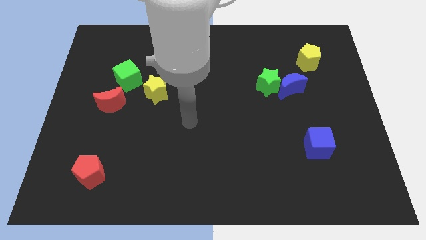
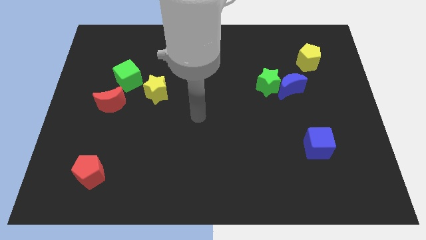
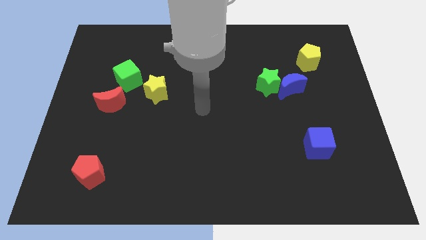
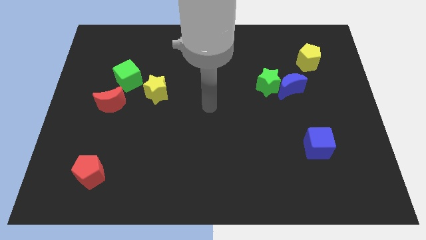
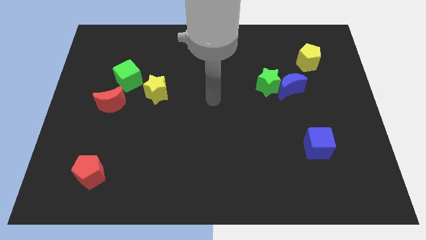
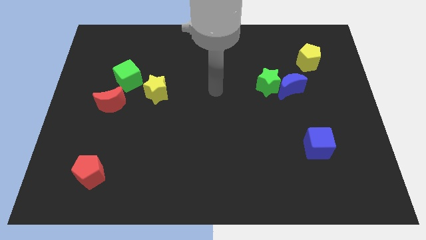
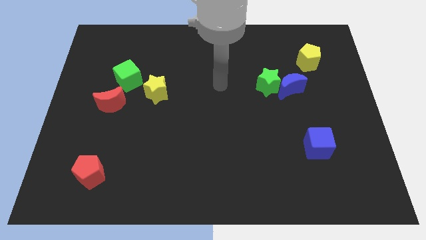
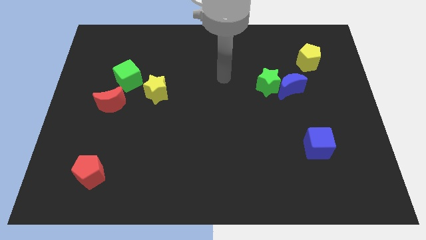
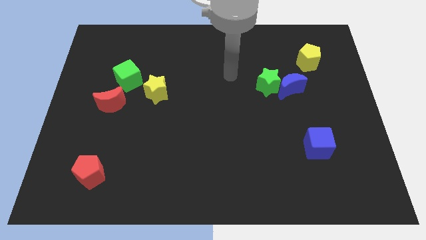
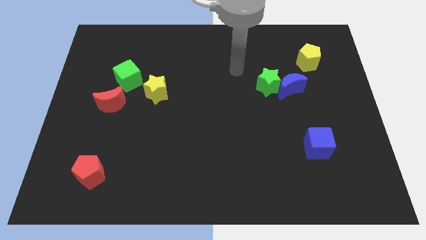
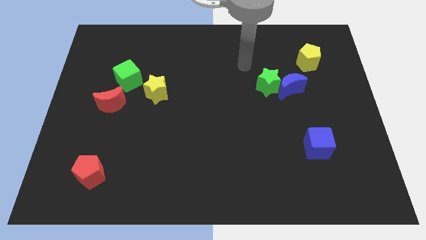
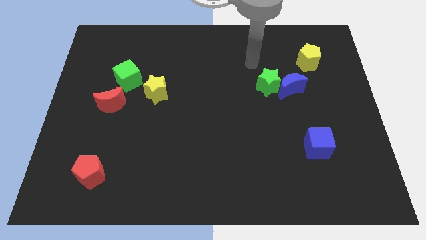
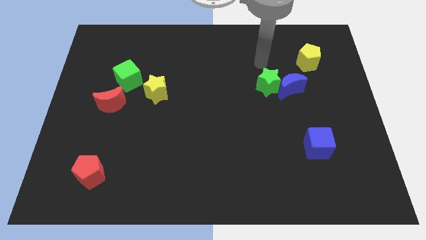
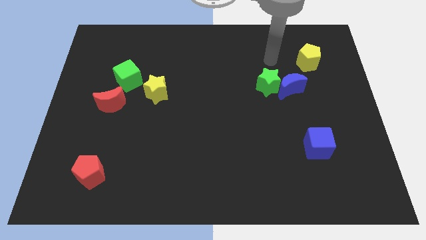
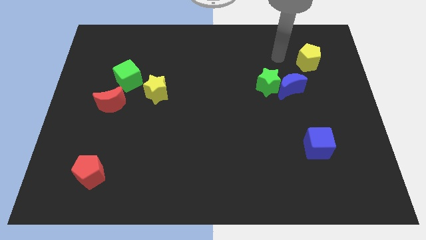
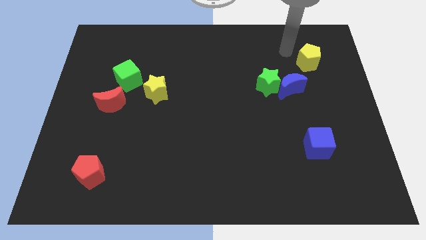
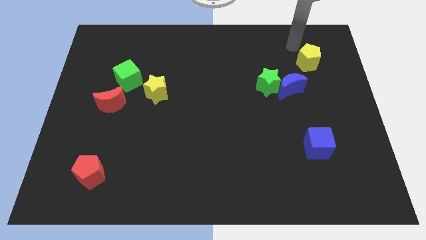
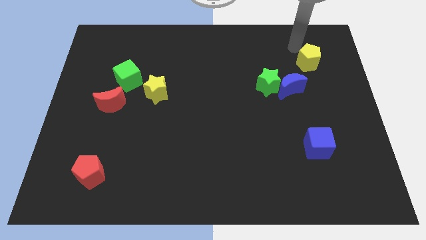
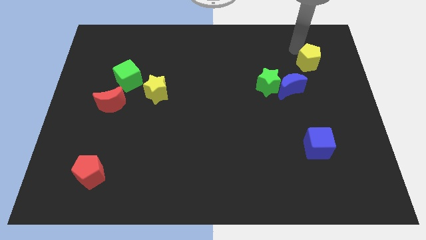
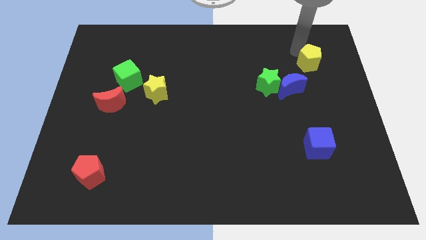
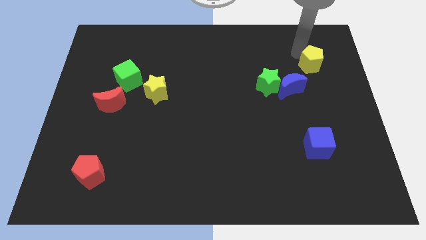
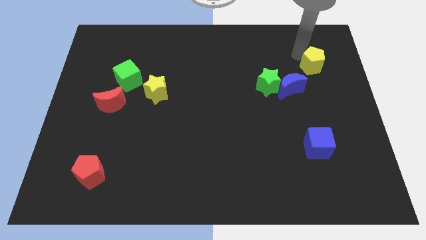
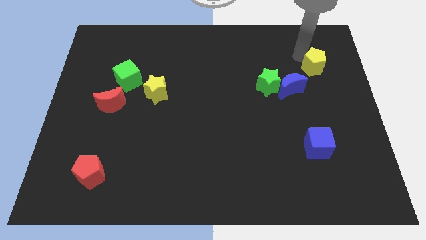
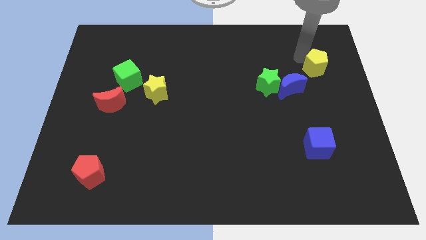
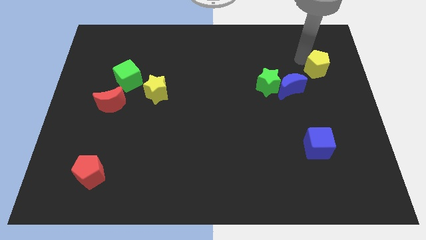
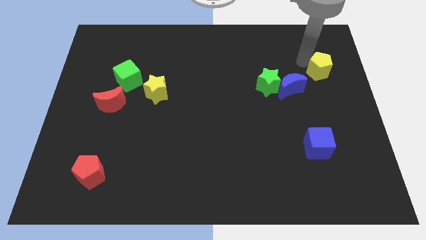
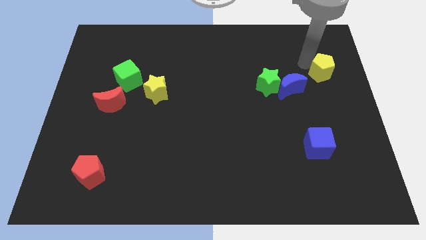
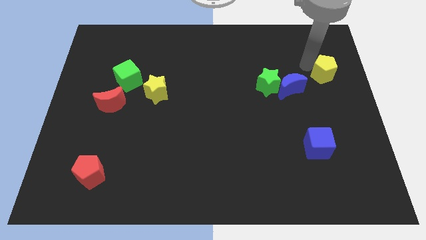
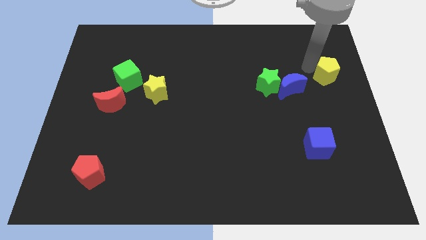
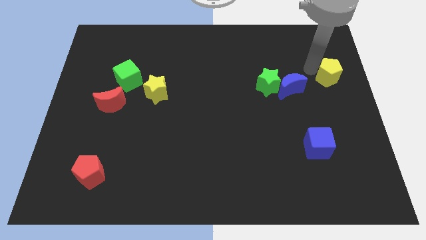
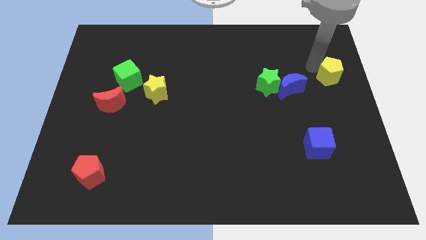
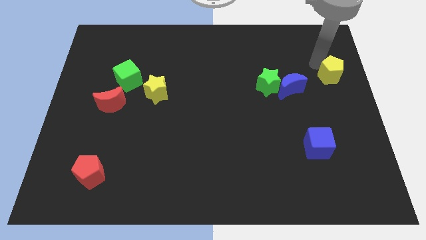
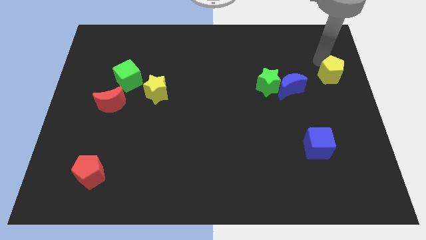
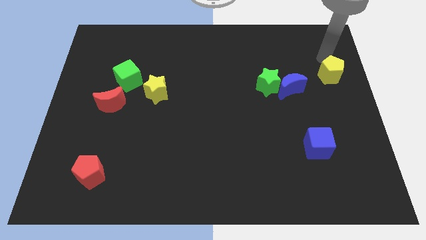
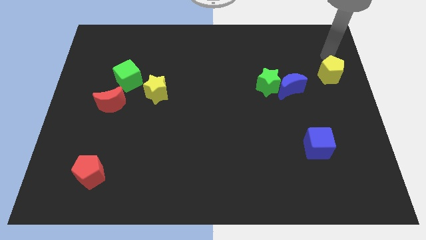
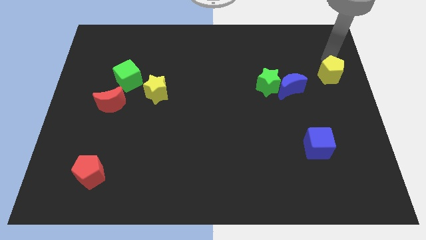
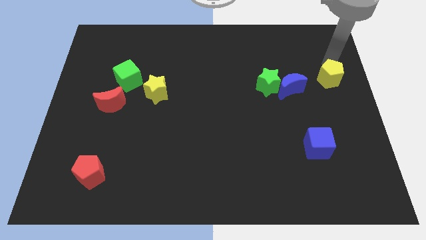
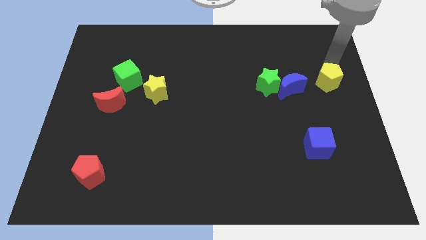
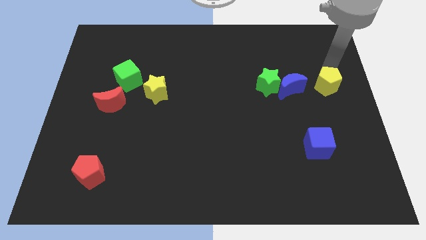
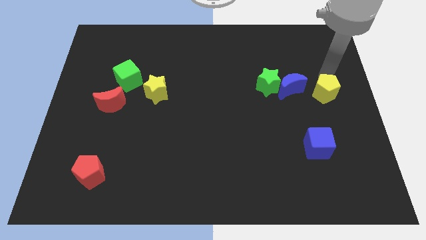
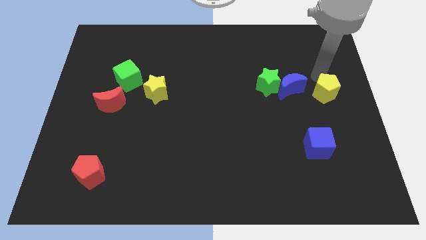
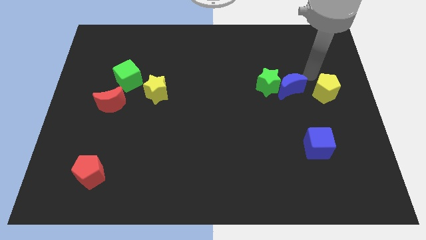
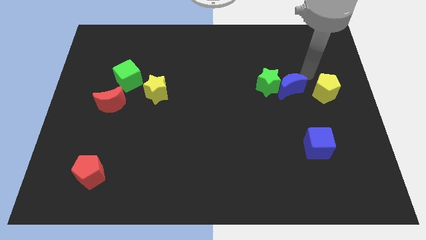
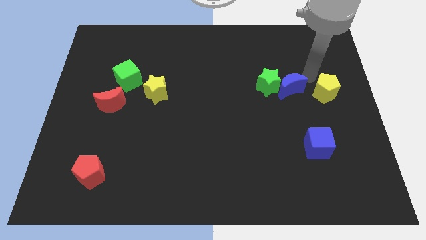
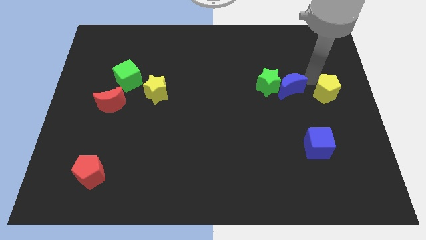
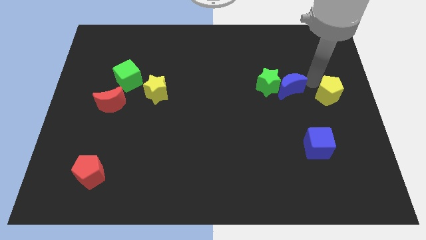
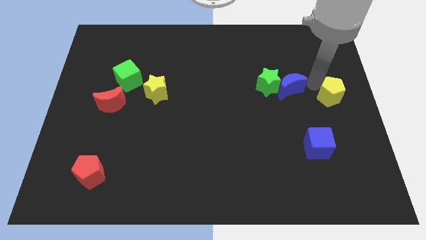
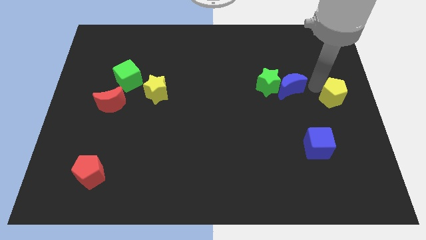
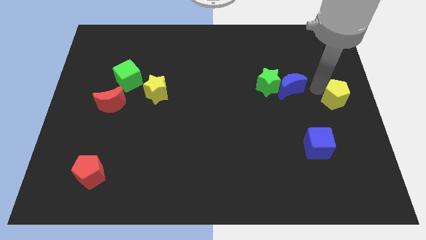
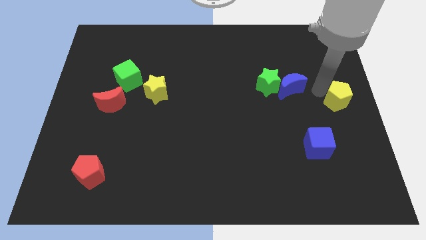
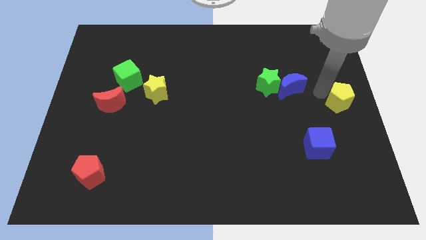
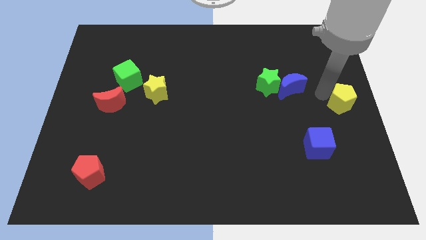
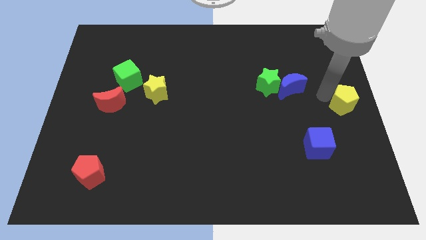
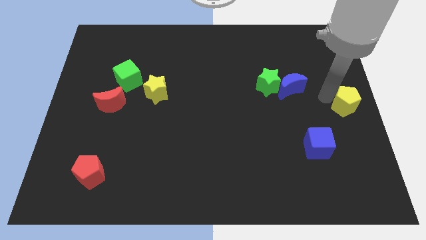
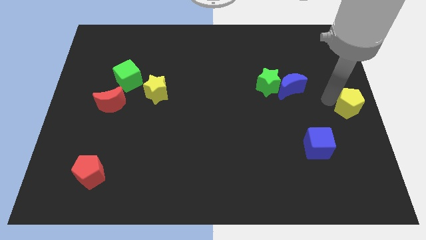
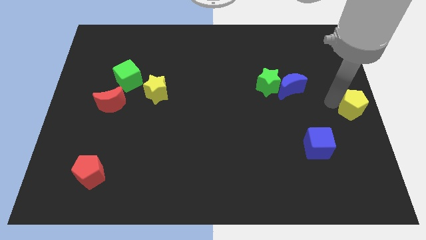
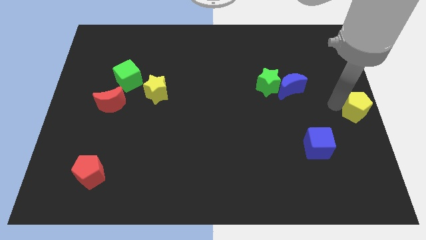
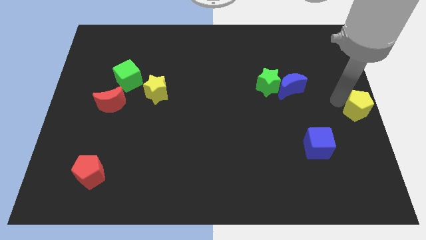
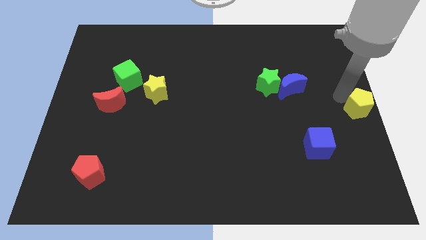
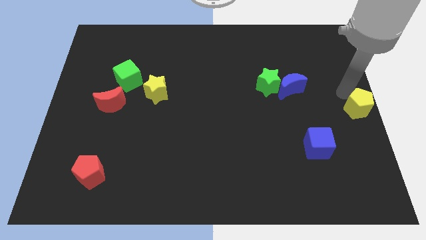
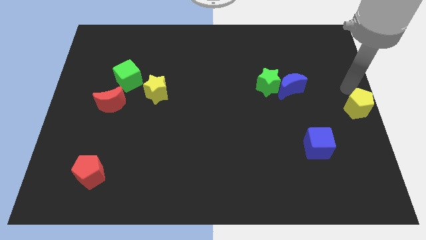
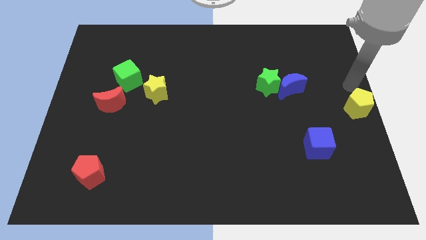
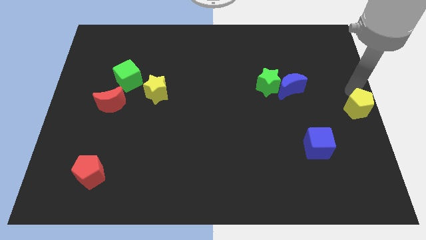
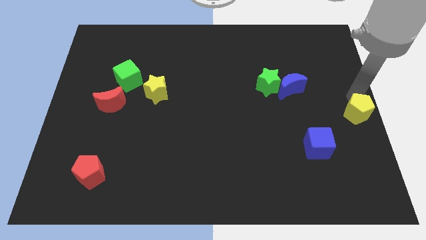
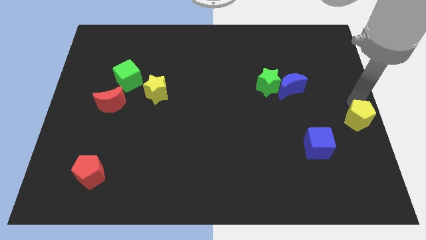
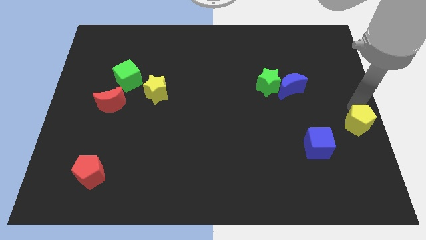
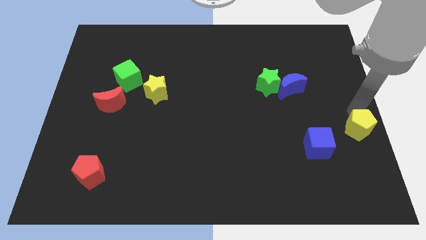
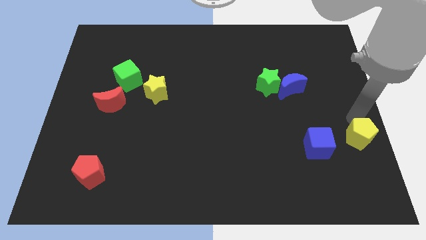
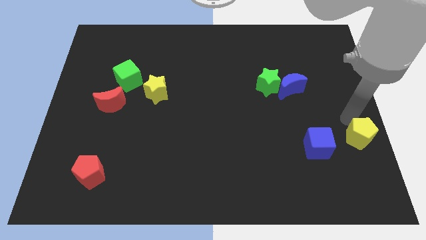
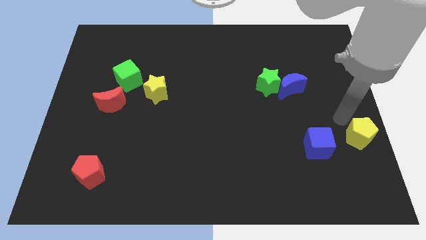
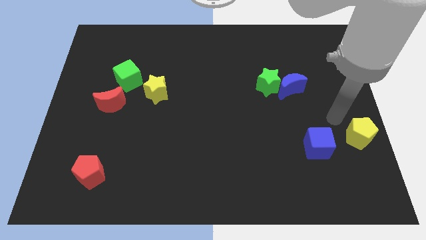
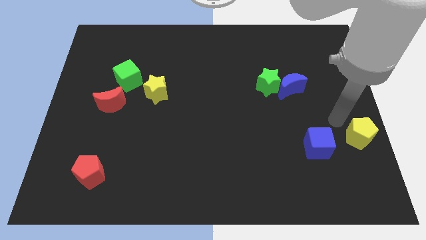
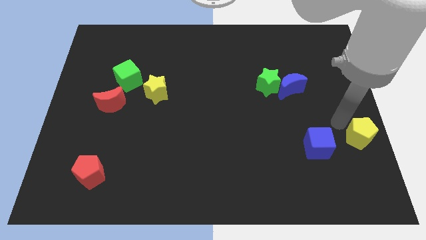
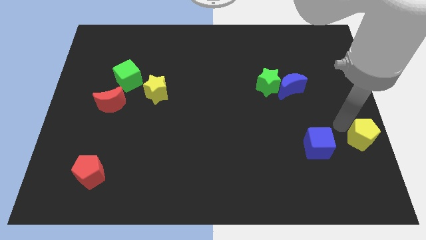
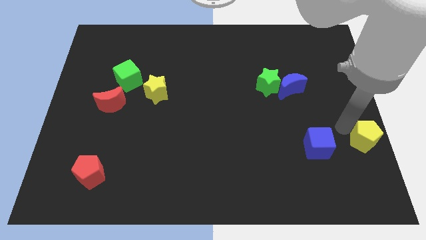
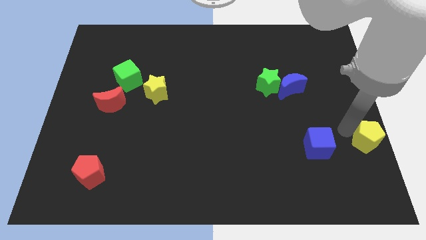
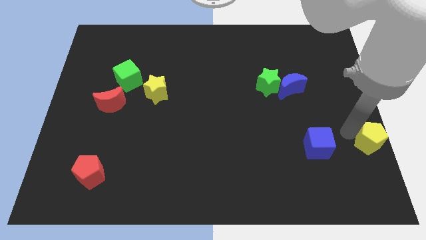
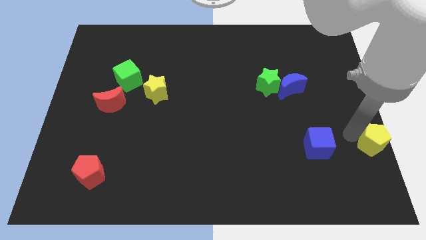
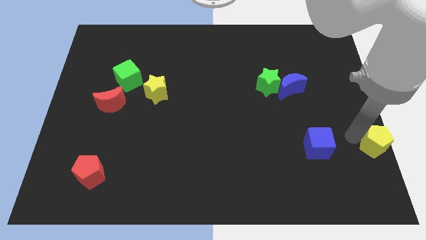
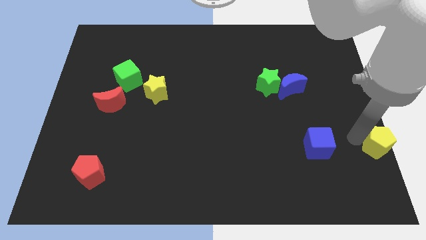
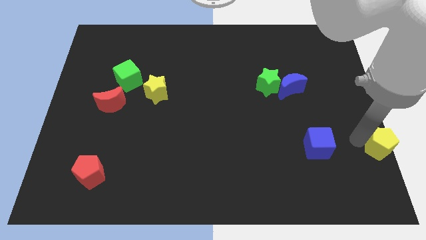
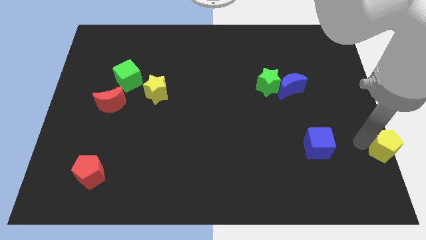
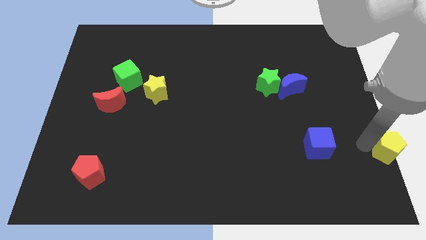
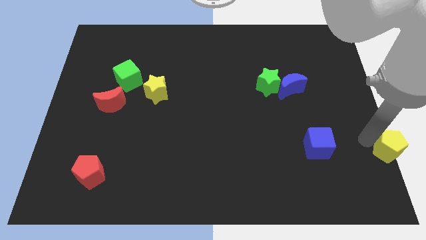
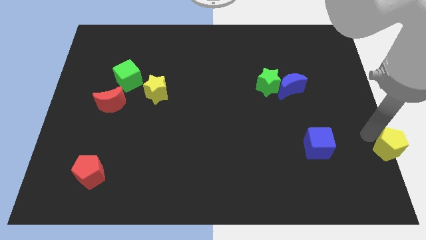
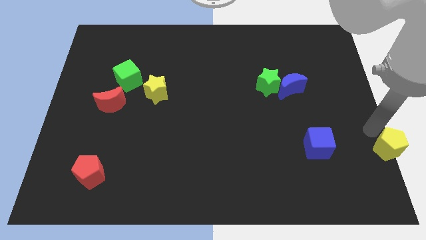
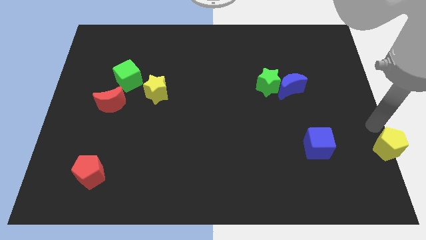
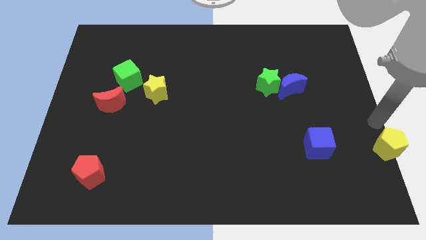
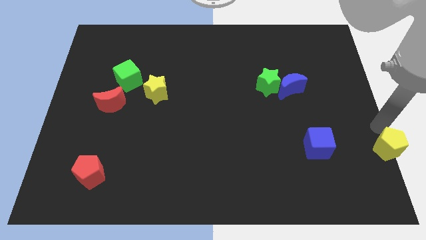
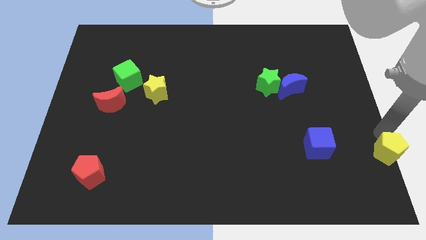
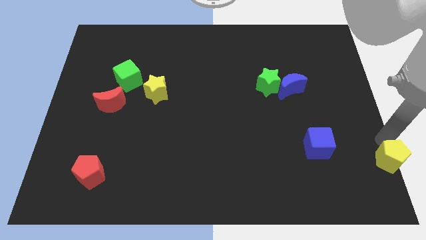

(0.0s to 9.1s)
slide the yellow pentagon to the bottom right of the board
